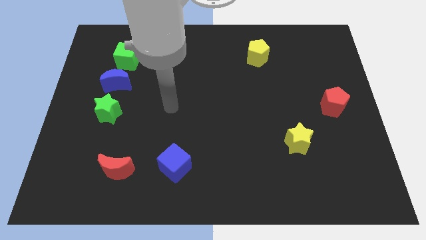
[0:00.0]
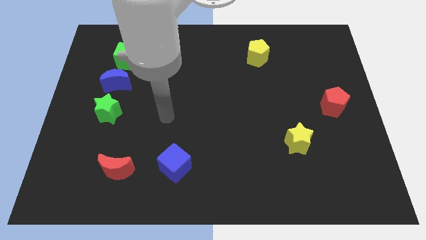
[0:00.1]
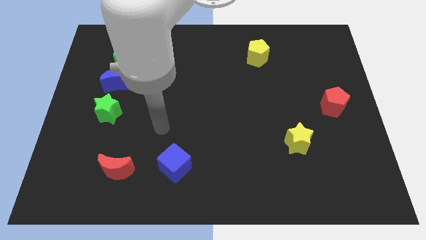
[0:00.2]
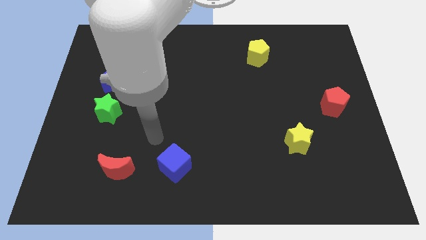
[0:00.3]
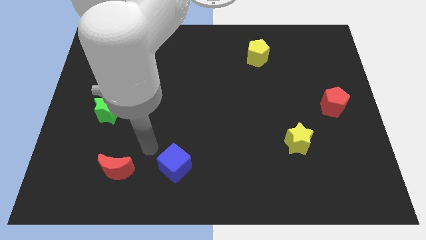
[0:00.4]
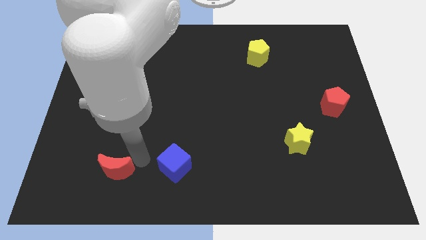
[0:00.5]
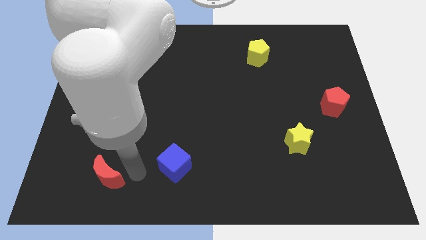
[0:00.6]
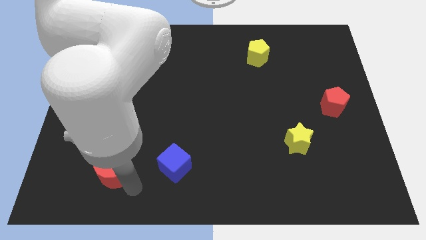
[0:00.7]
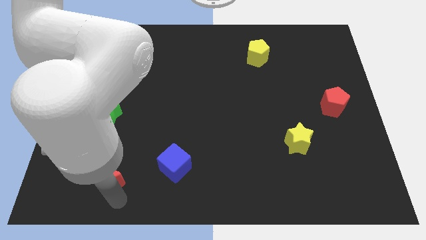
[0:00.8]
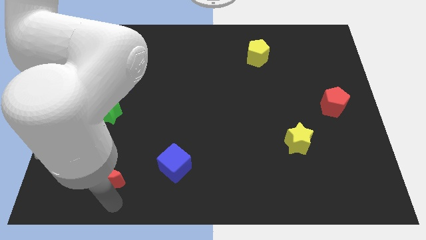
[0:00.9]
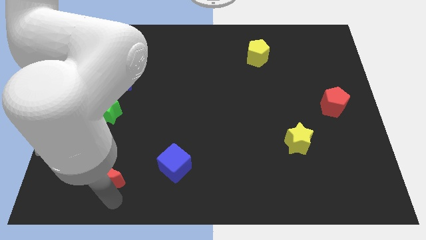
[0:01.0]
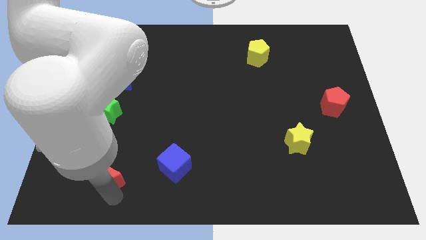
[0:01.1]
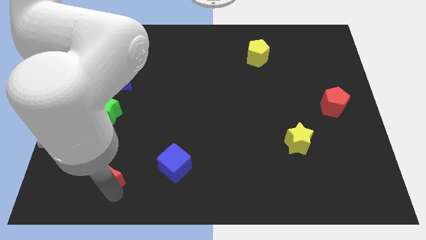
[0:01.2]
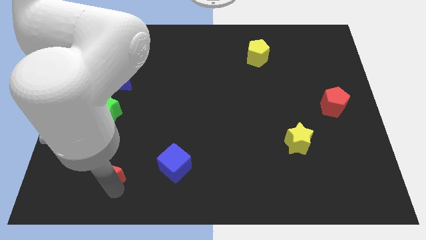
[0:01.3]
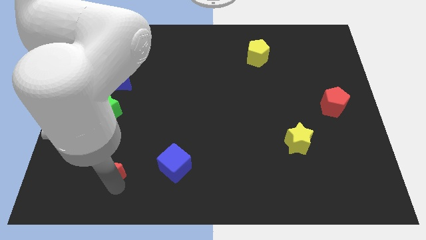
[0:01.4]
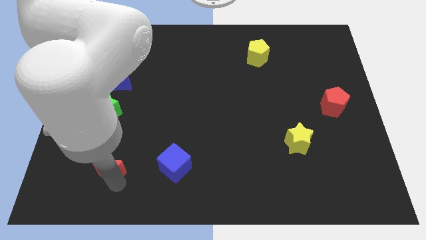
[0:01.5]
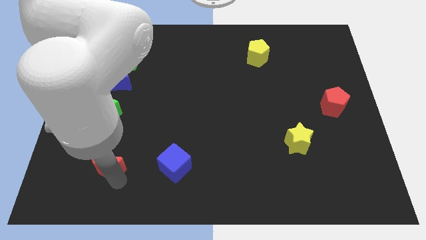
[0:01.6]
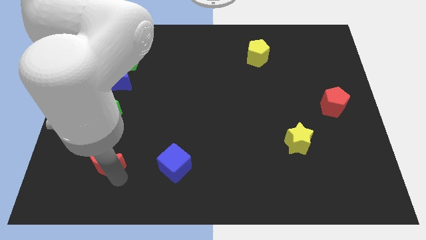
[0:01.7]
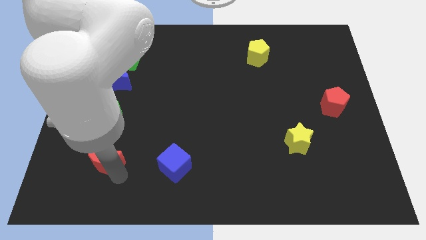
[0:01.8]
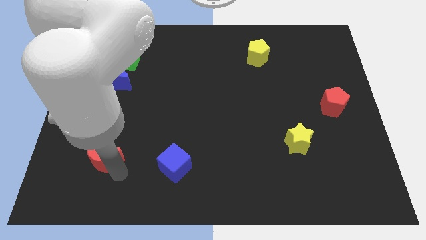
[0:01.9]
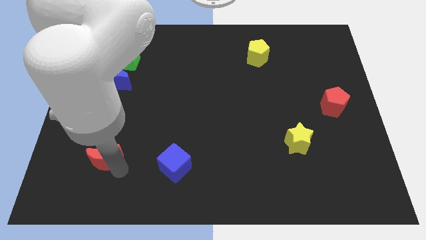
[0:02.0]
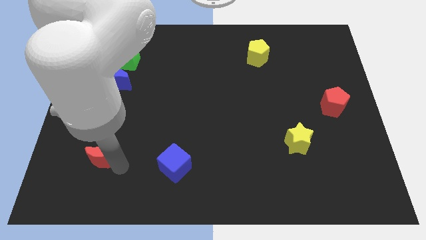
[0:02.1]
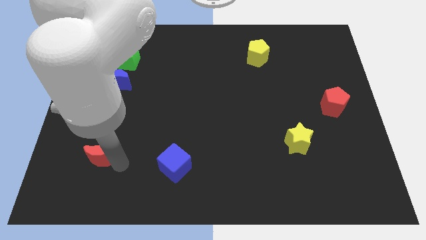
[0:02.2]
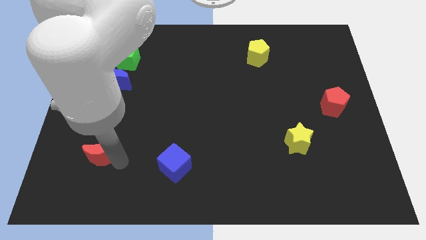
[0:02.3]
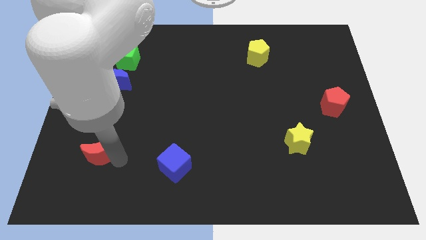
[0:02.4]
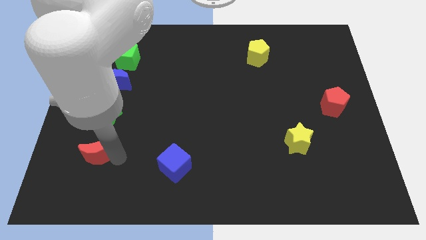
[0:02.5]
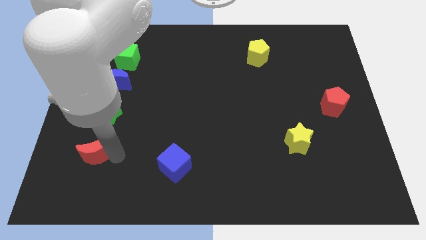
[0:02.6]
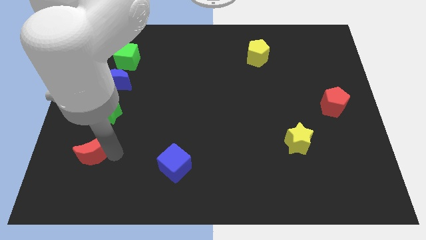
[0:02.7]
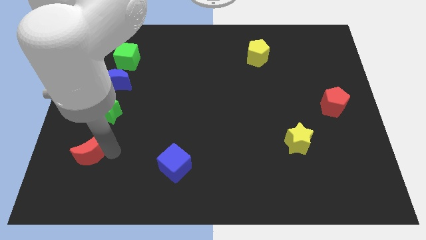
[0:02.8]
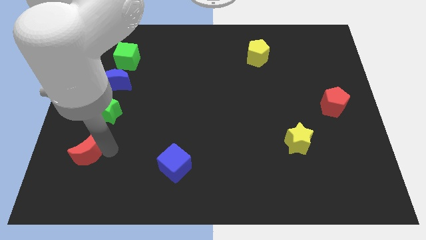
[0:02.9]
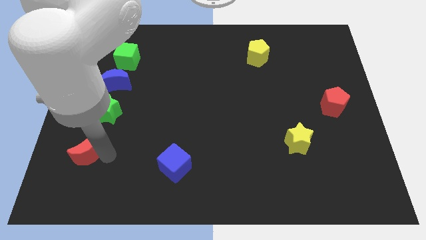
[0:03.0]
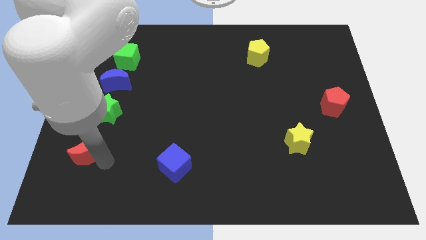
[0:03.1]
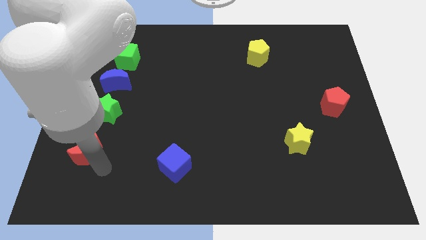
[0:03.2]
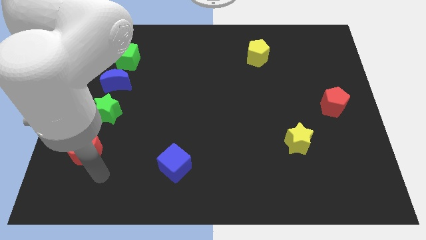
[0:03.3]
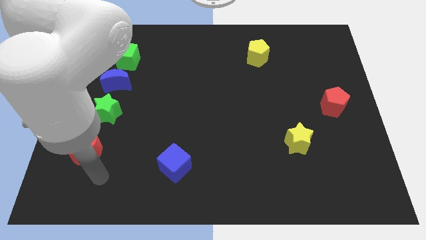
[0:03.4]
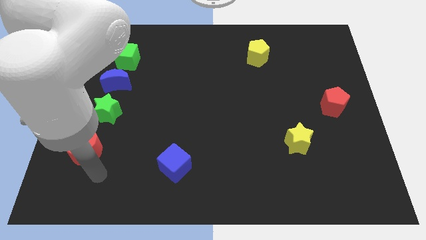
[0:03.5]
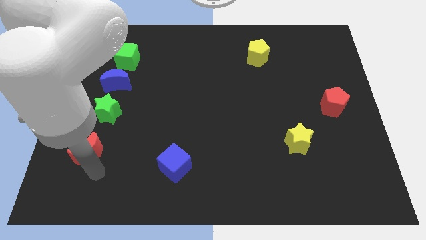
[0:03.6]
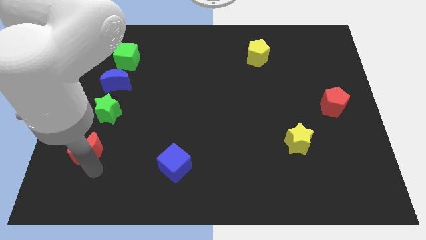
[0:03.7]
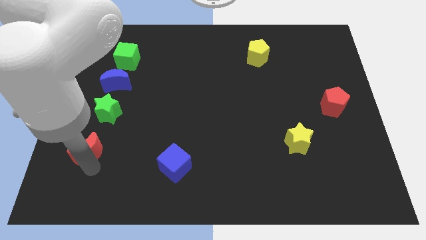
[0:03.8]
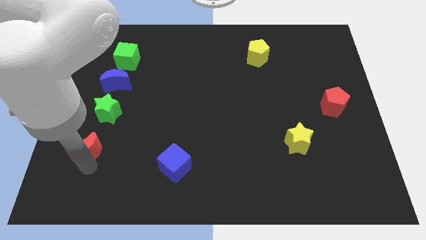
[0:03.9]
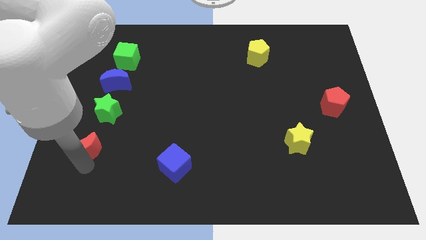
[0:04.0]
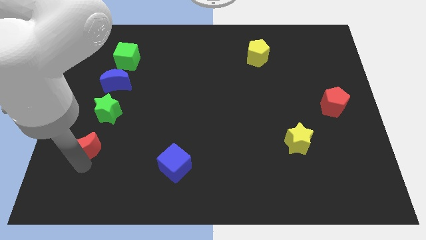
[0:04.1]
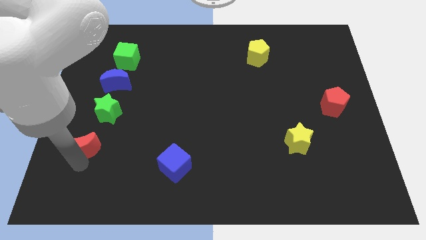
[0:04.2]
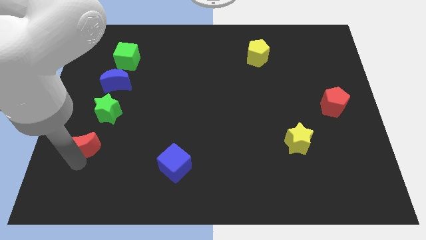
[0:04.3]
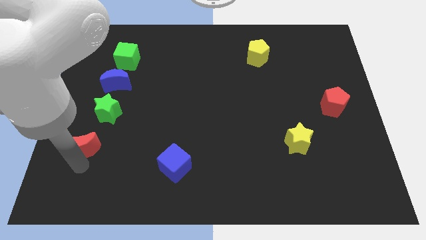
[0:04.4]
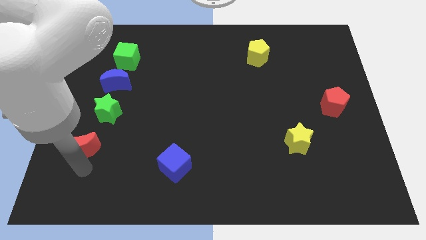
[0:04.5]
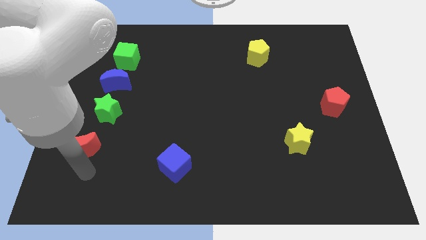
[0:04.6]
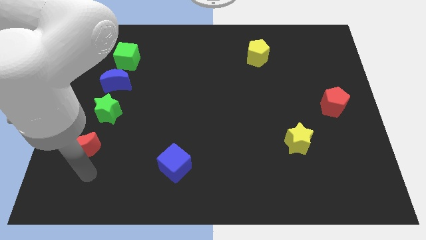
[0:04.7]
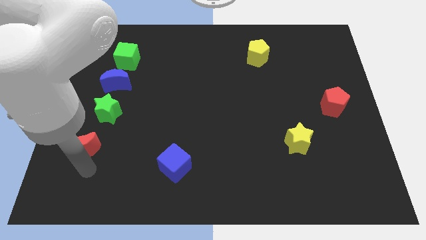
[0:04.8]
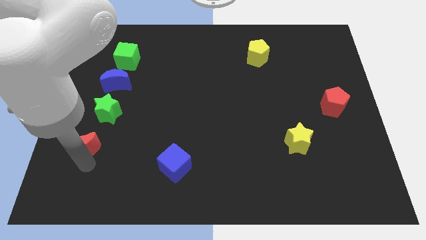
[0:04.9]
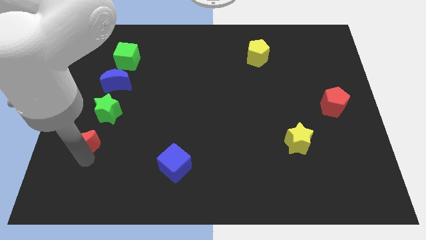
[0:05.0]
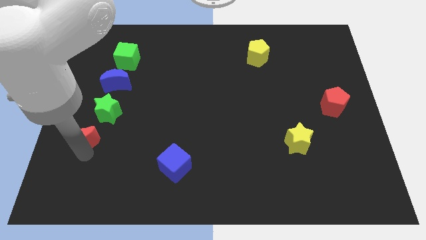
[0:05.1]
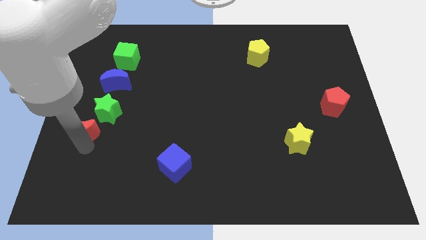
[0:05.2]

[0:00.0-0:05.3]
push the red moon to the left side

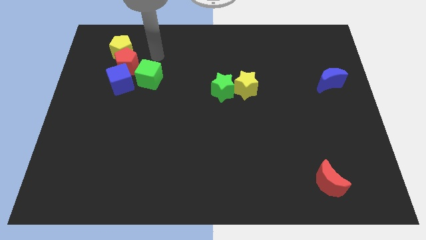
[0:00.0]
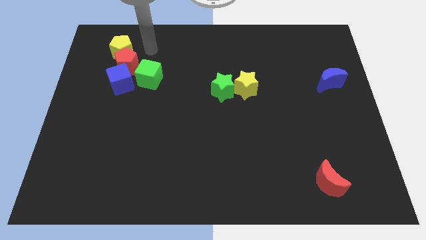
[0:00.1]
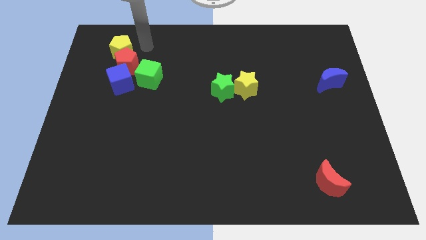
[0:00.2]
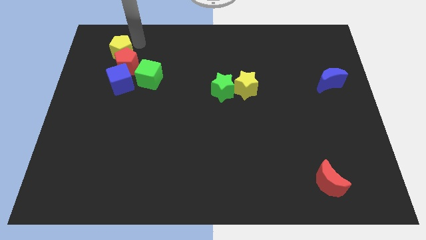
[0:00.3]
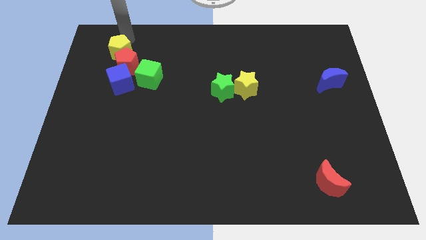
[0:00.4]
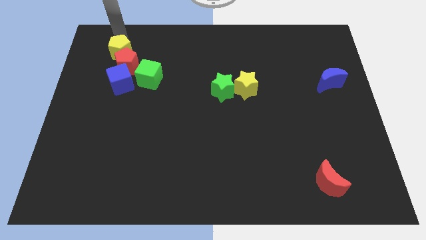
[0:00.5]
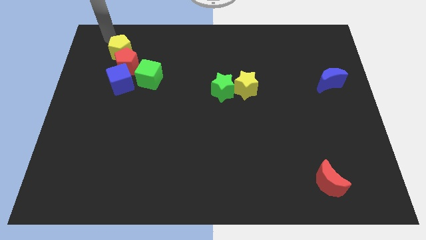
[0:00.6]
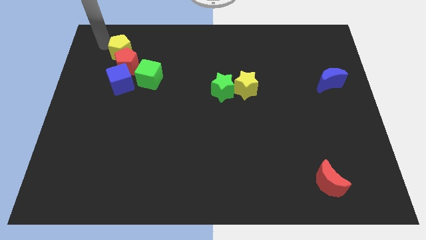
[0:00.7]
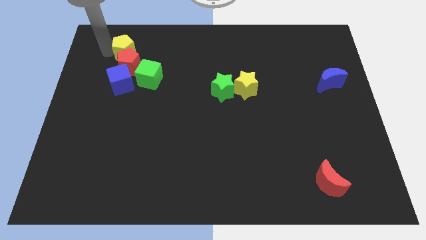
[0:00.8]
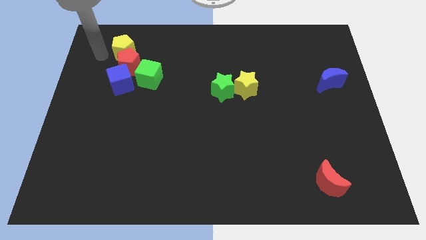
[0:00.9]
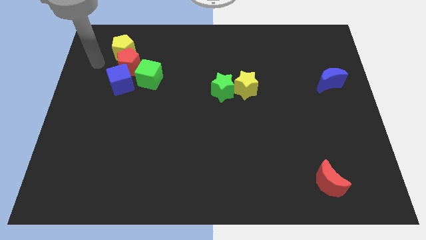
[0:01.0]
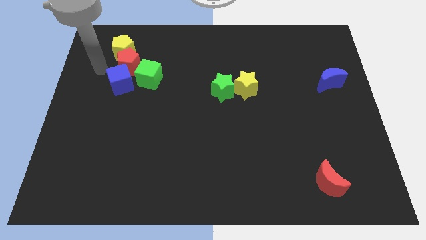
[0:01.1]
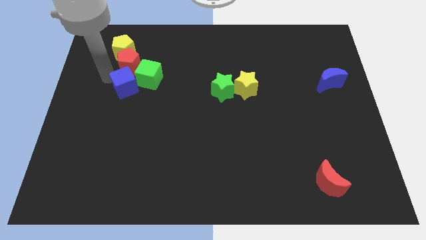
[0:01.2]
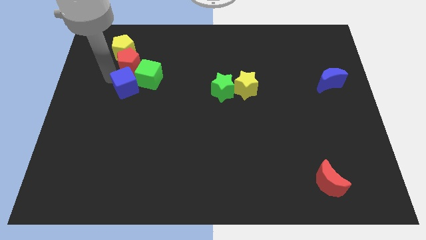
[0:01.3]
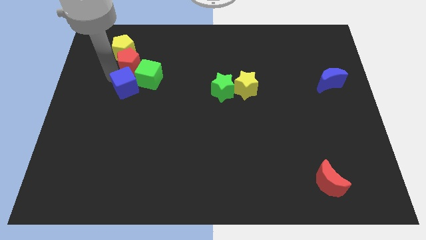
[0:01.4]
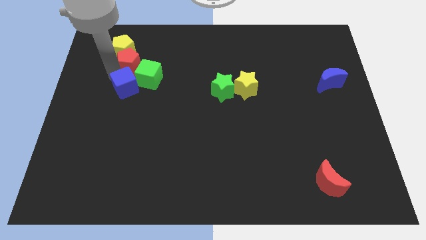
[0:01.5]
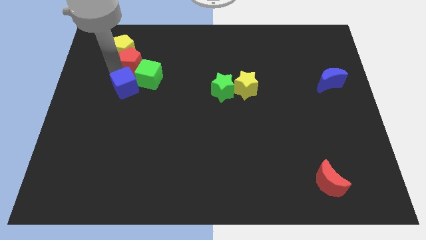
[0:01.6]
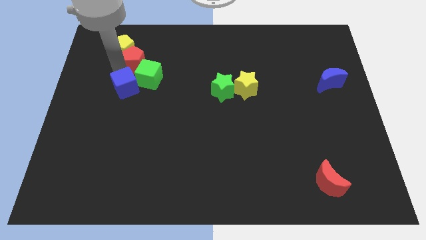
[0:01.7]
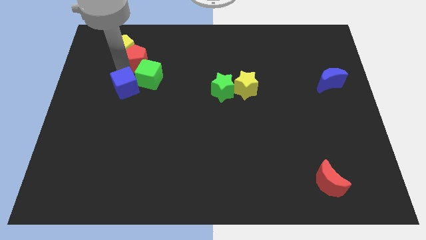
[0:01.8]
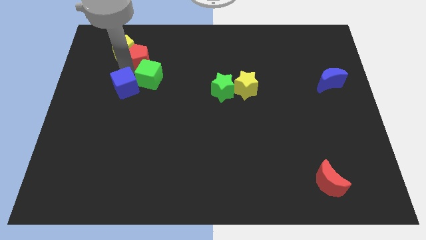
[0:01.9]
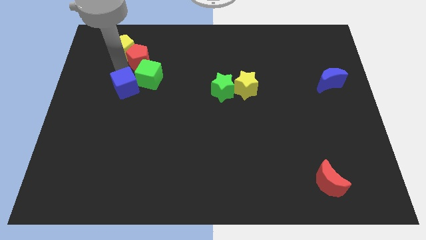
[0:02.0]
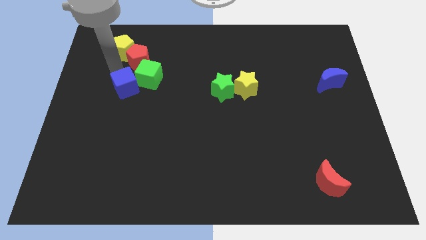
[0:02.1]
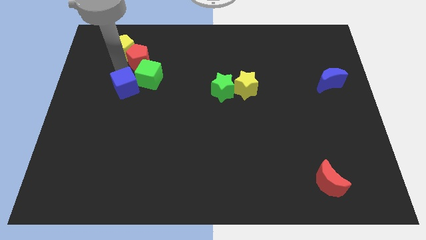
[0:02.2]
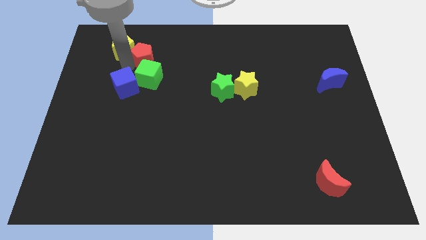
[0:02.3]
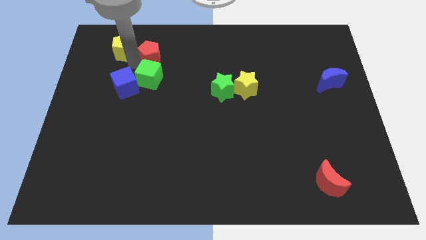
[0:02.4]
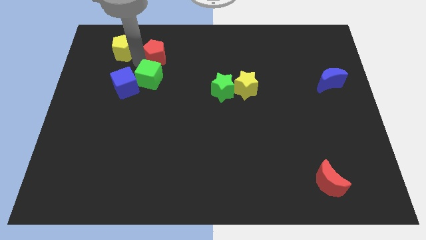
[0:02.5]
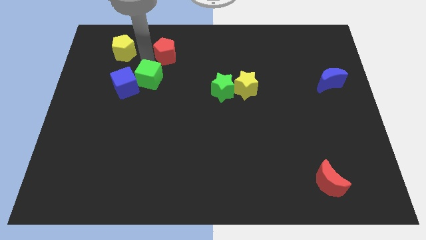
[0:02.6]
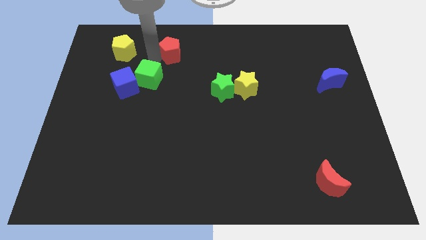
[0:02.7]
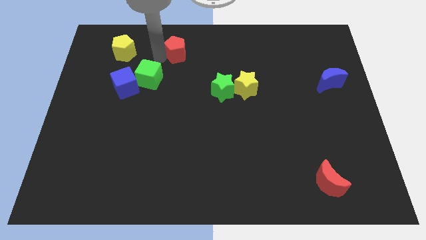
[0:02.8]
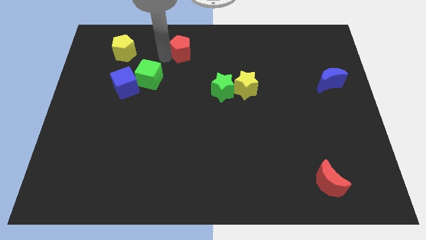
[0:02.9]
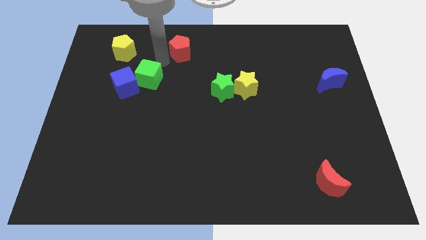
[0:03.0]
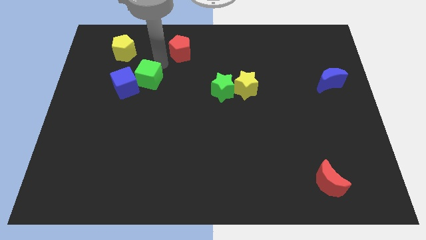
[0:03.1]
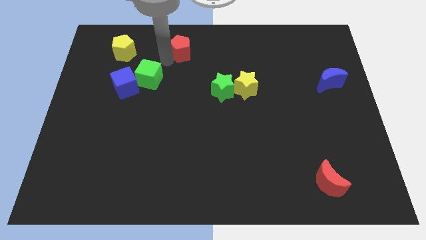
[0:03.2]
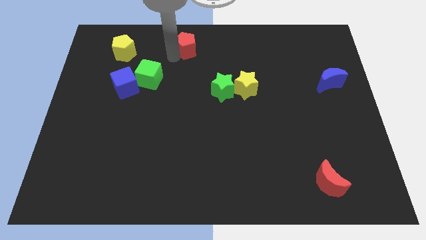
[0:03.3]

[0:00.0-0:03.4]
move the red pentagon to the top side

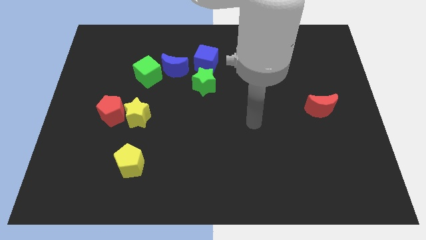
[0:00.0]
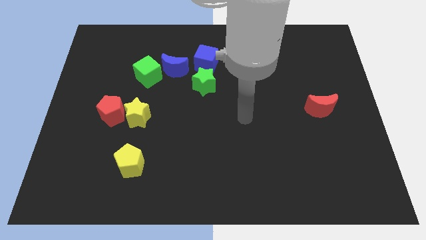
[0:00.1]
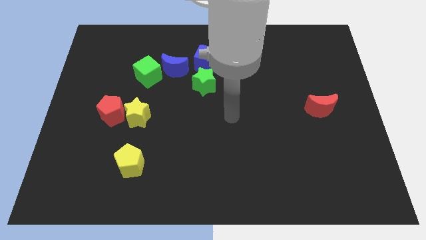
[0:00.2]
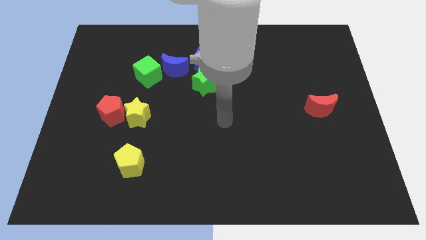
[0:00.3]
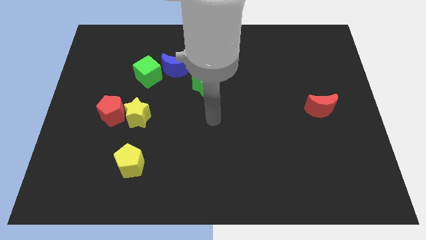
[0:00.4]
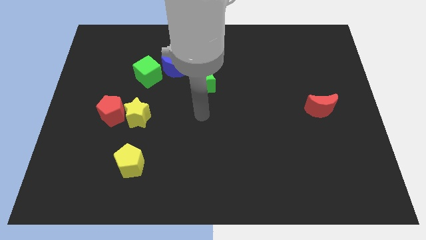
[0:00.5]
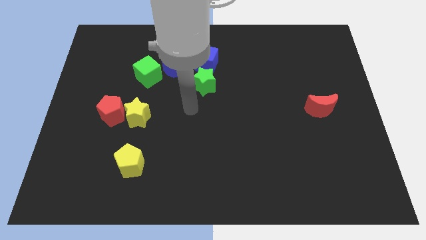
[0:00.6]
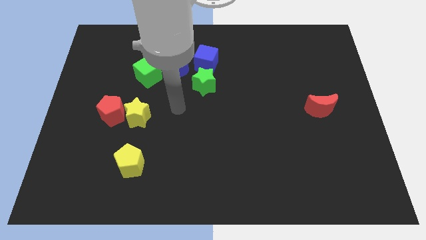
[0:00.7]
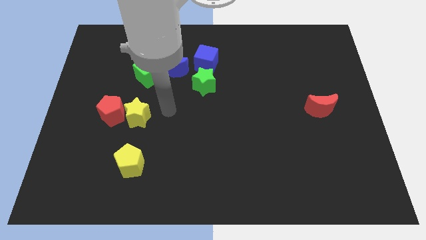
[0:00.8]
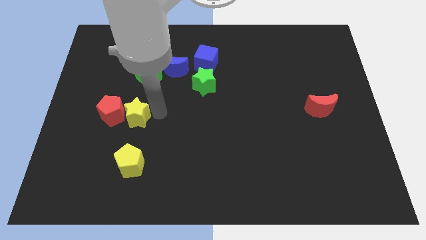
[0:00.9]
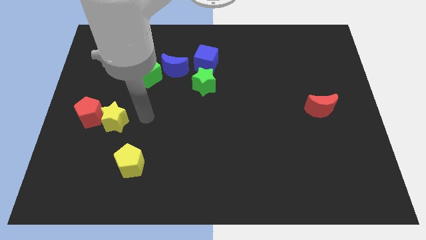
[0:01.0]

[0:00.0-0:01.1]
slide the red pentagon to the left side
